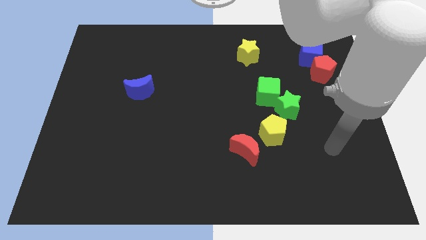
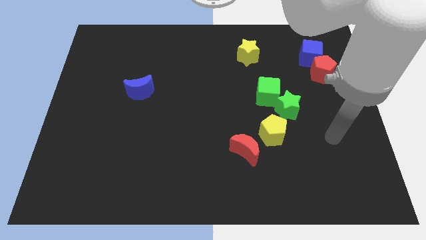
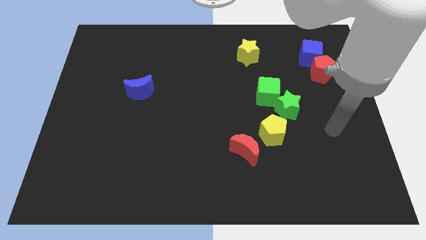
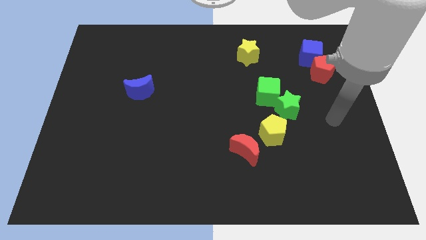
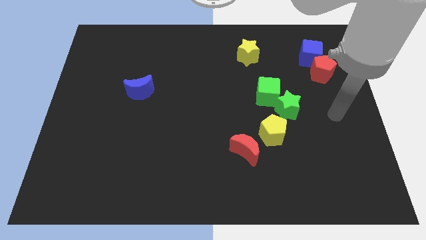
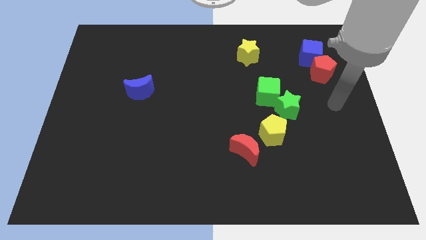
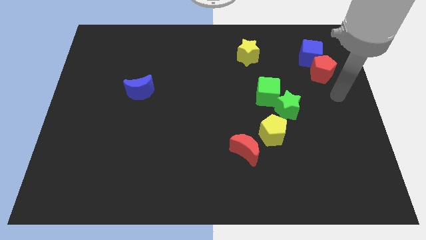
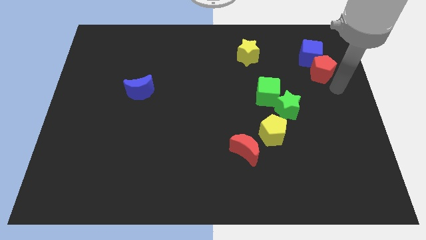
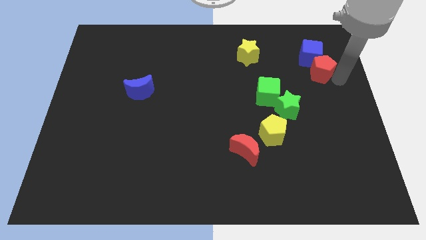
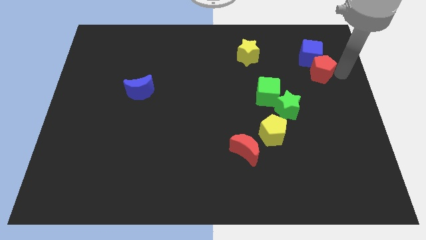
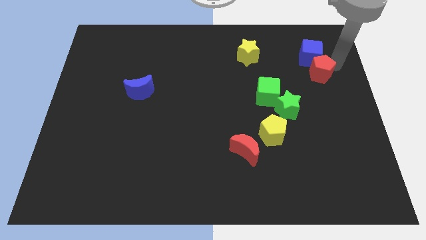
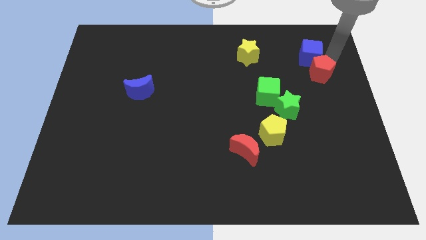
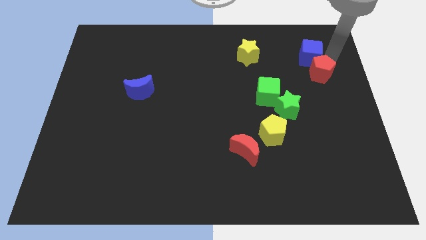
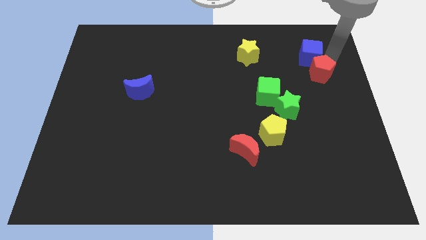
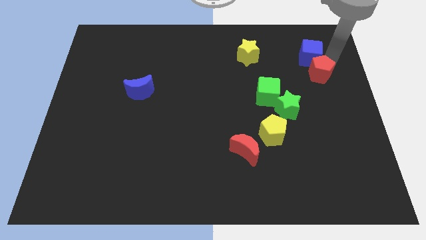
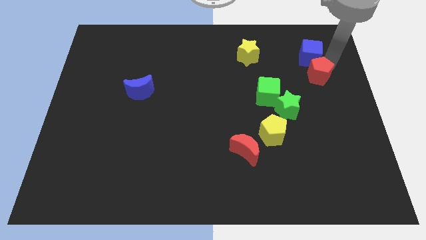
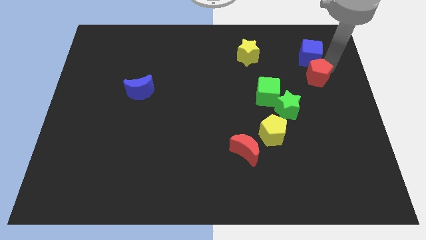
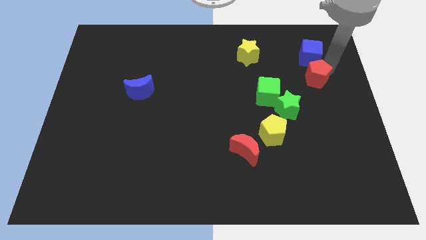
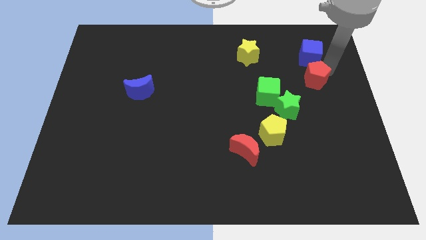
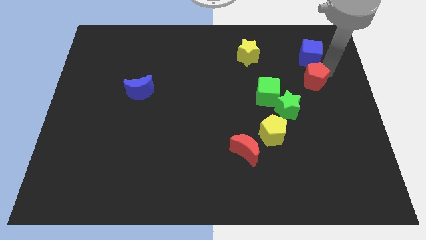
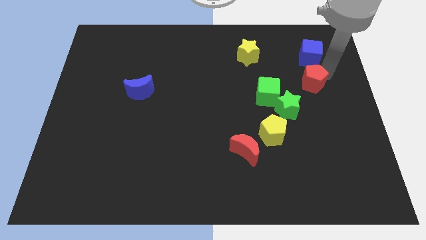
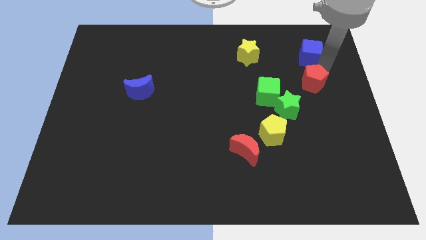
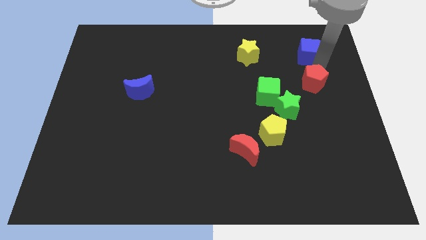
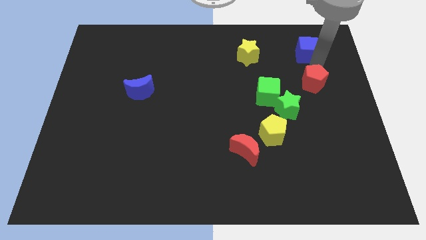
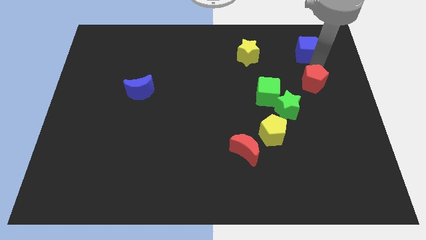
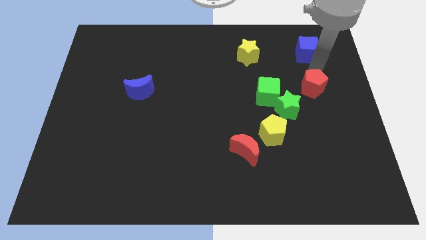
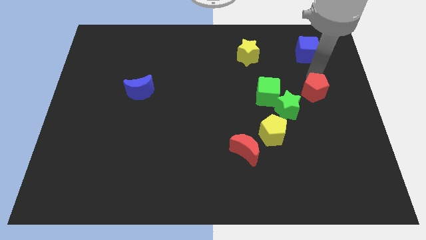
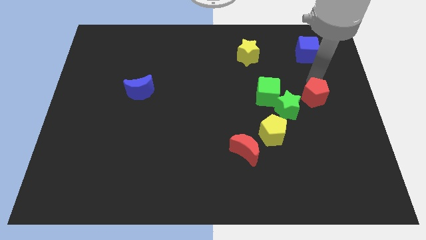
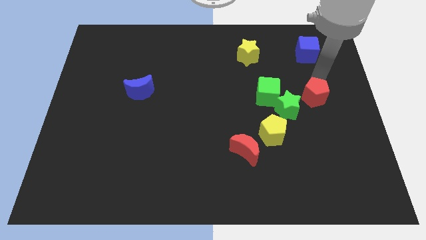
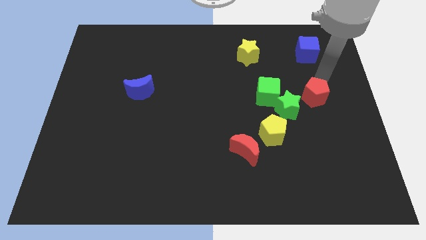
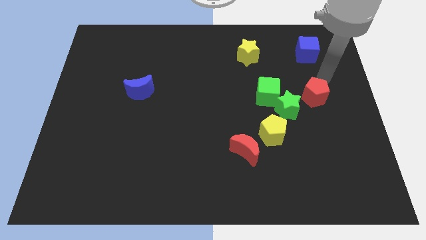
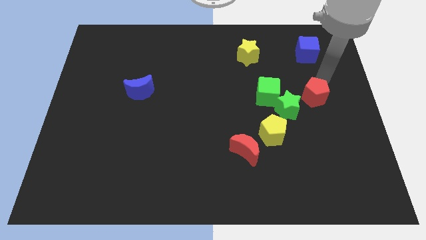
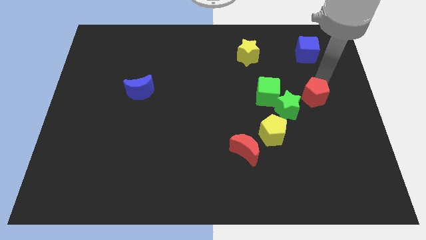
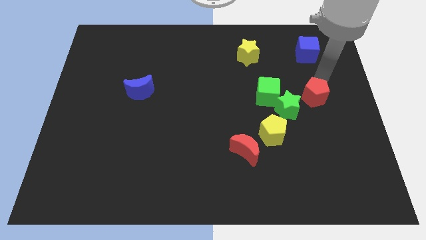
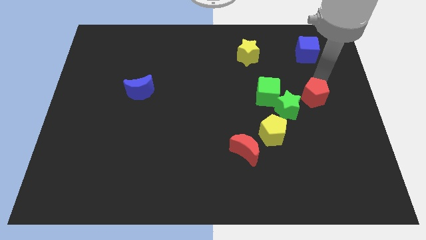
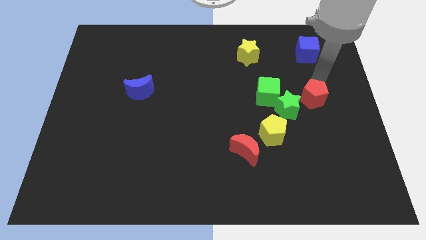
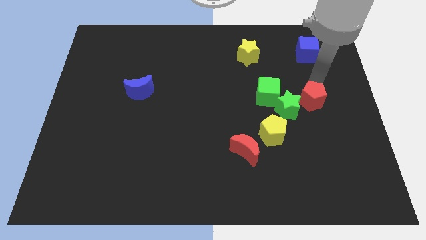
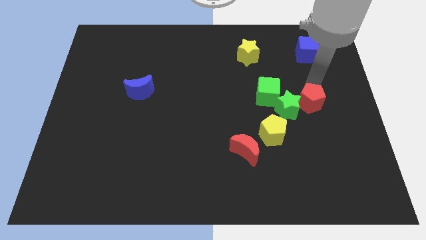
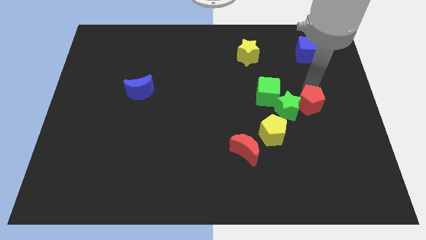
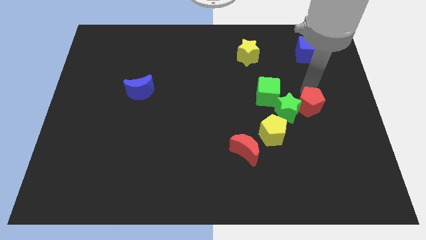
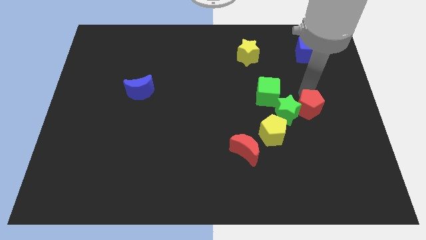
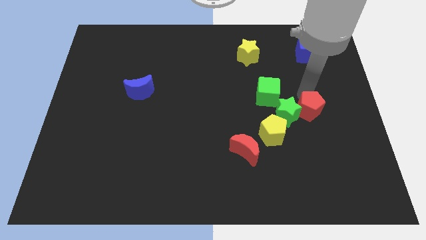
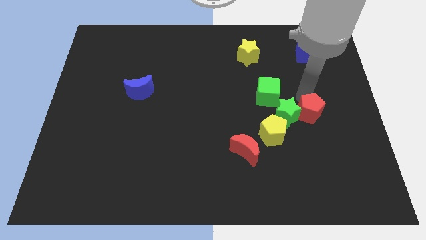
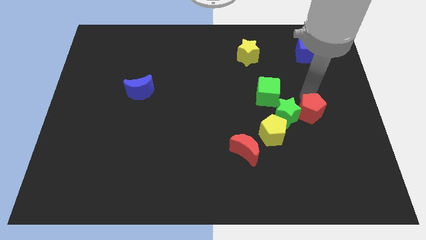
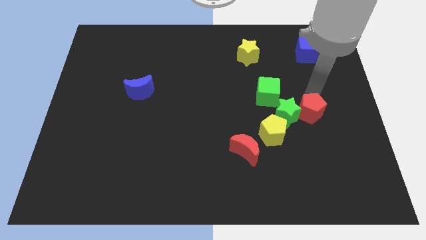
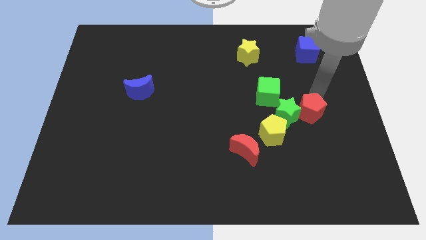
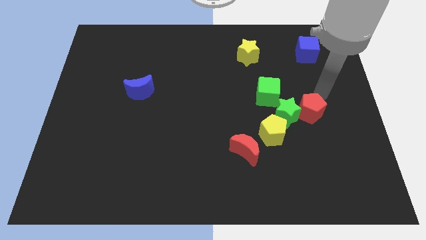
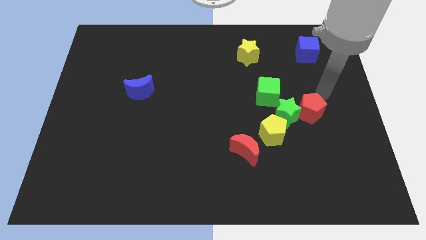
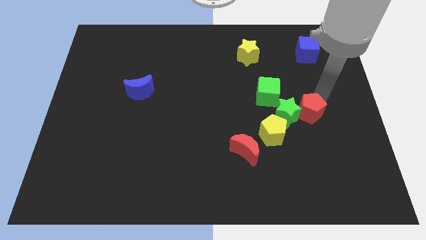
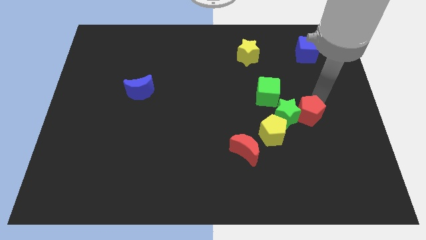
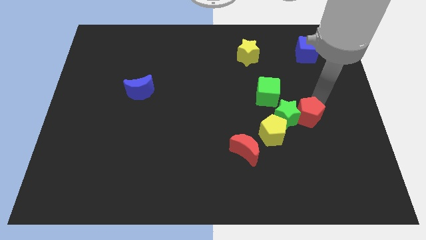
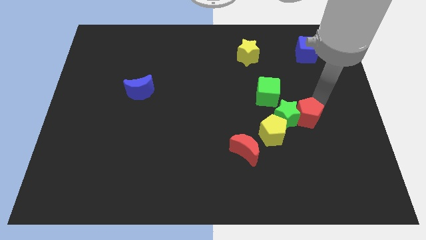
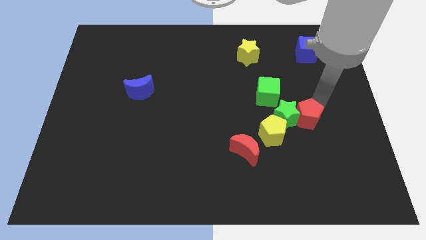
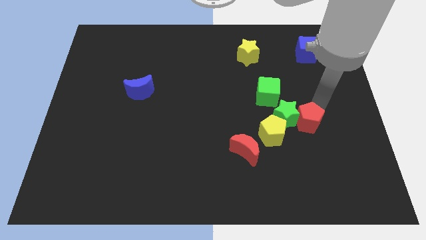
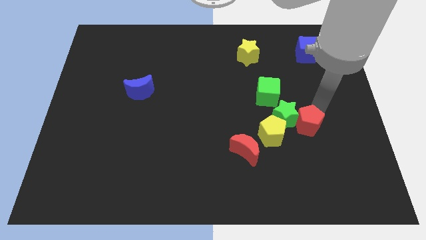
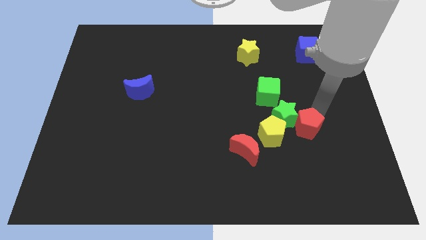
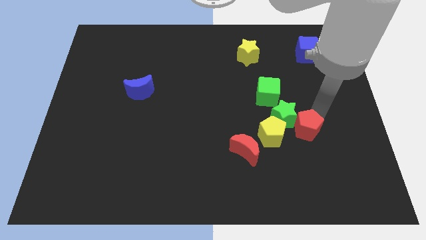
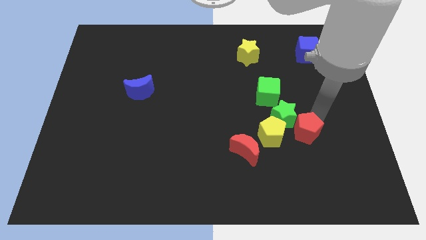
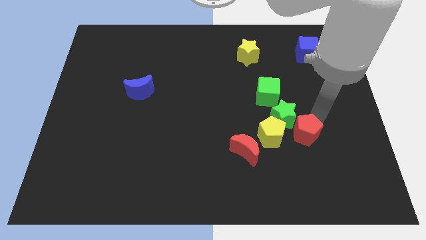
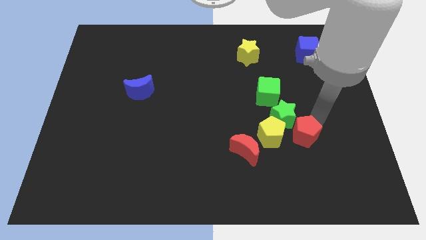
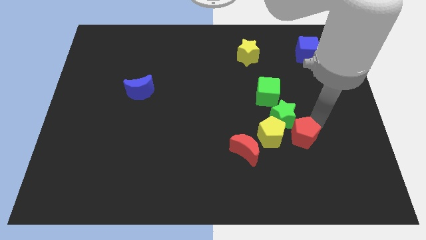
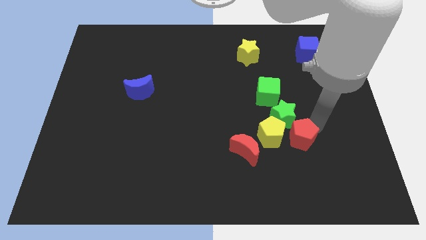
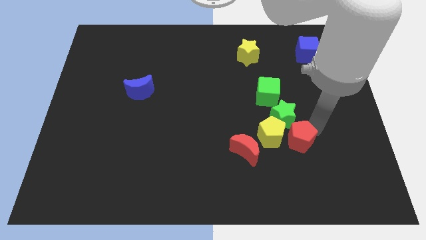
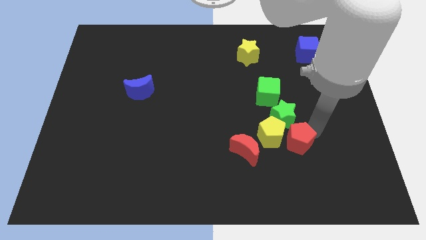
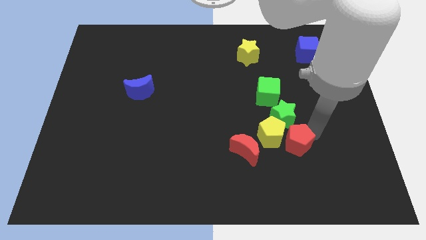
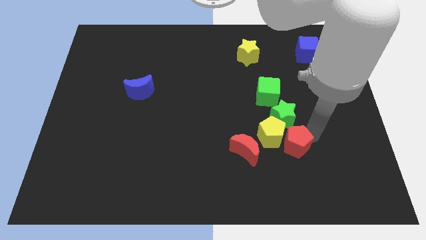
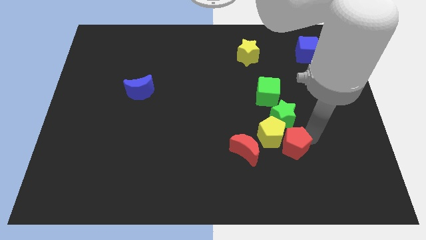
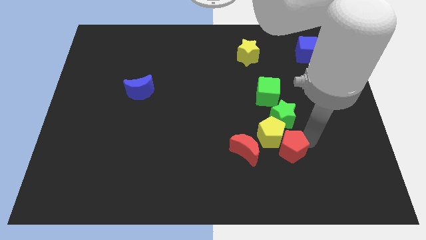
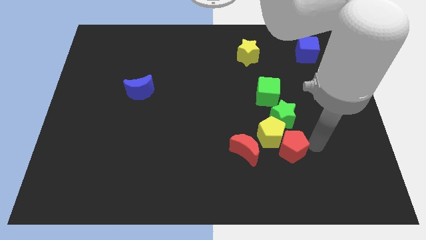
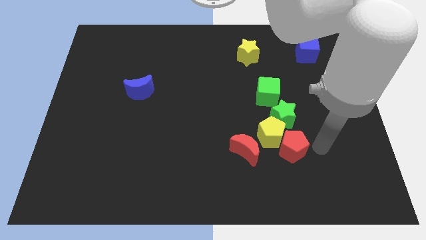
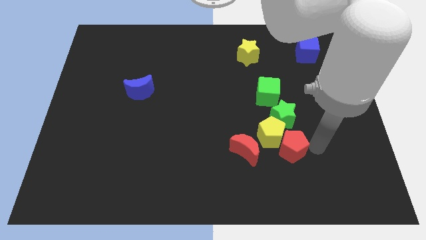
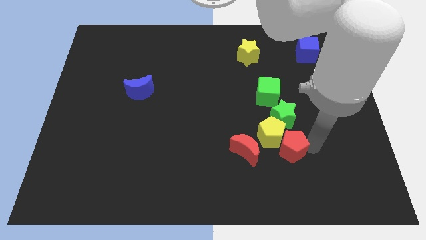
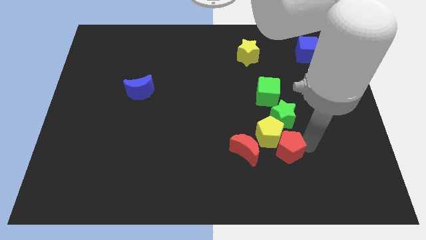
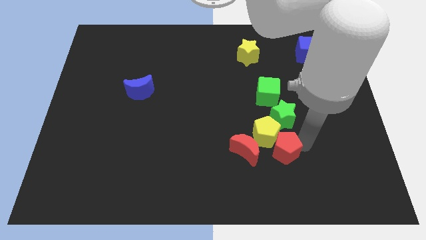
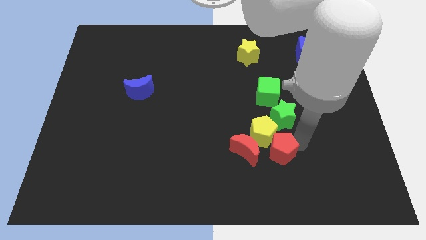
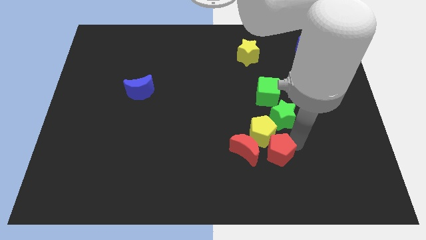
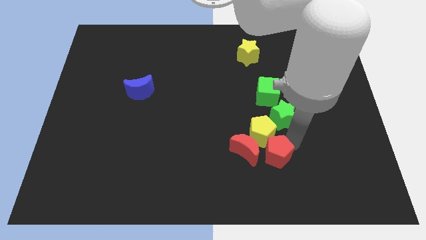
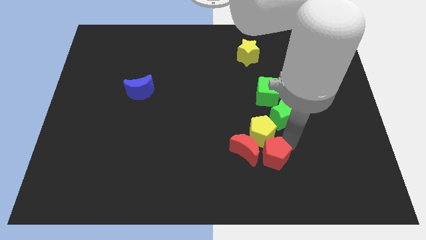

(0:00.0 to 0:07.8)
push the red pentagon close to the red moon
